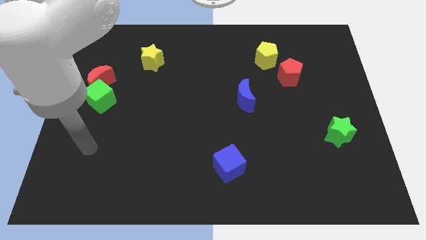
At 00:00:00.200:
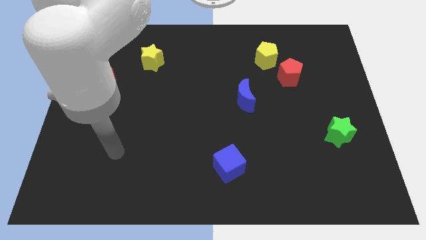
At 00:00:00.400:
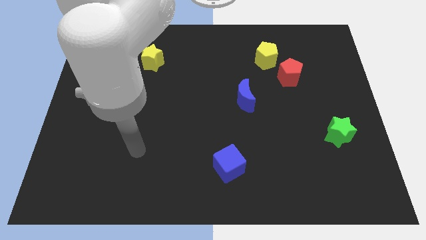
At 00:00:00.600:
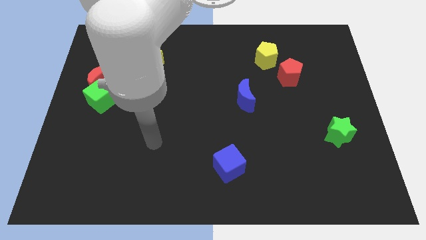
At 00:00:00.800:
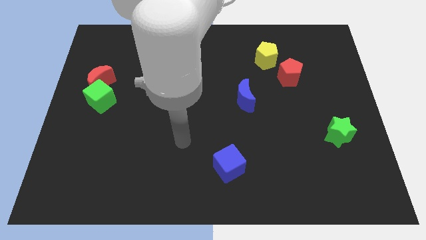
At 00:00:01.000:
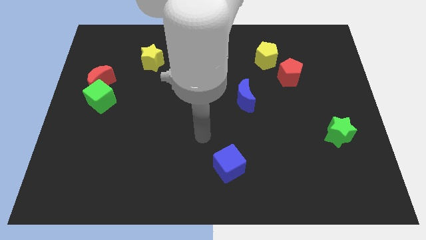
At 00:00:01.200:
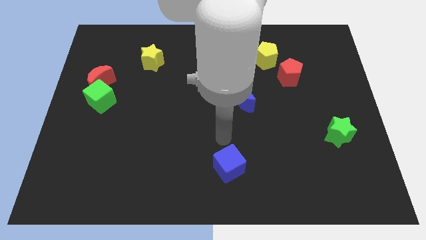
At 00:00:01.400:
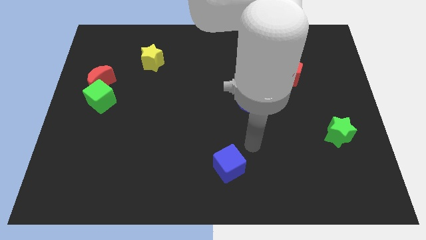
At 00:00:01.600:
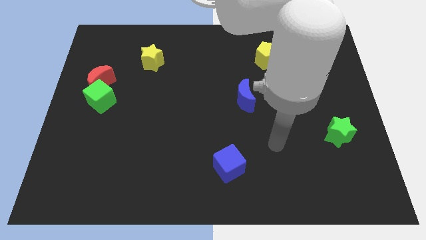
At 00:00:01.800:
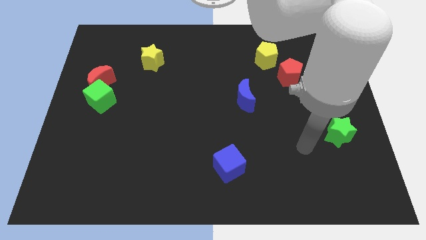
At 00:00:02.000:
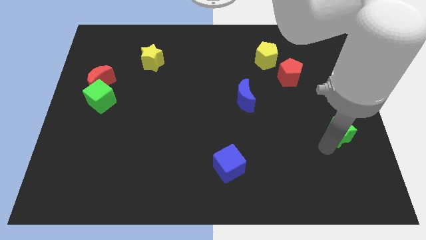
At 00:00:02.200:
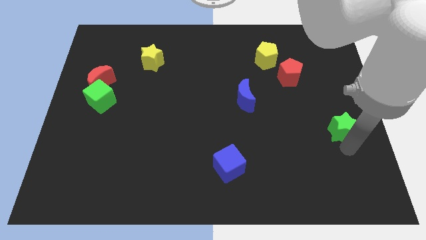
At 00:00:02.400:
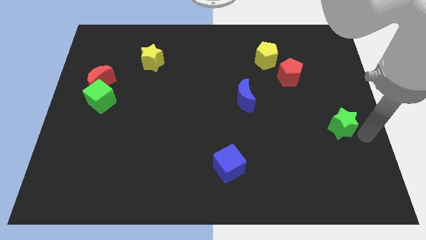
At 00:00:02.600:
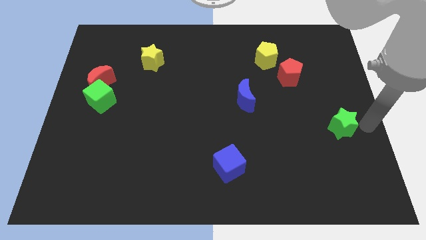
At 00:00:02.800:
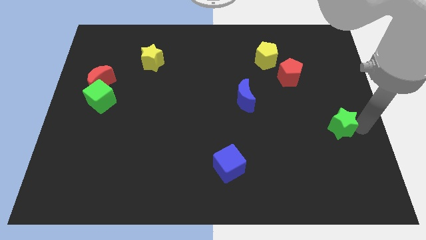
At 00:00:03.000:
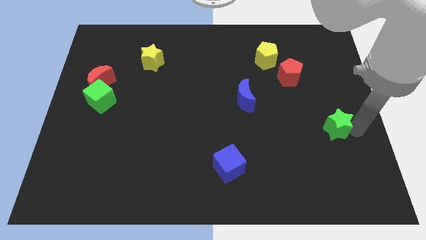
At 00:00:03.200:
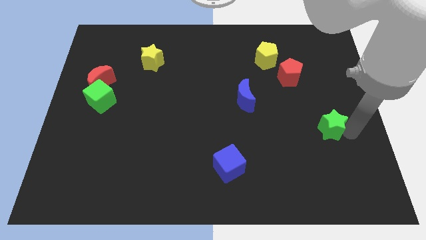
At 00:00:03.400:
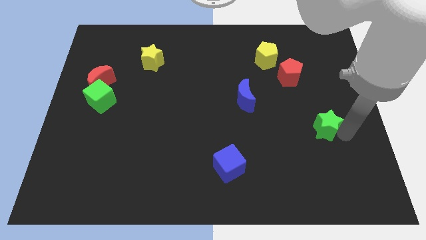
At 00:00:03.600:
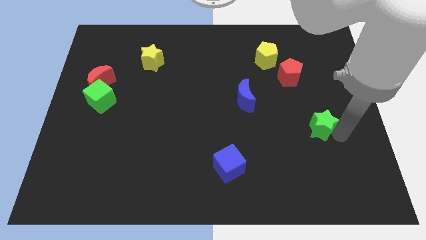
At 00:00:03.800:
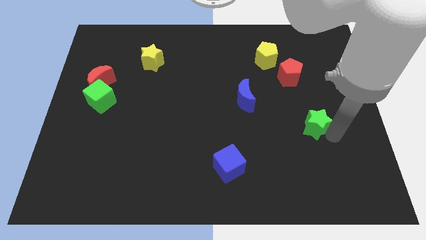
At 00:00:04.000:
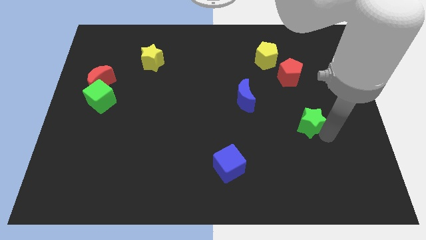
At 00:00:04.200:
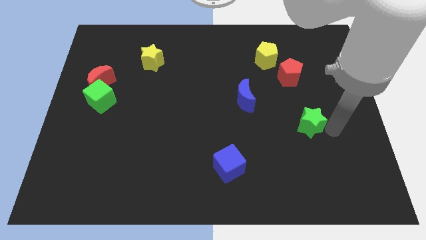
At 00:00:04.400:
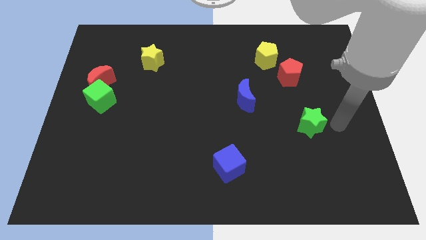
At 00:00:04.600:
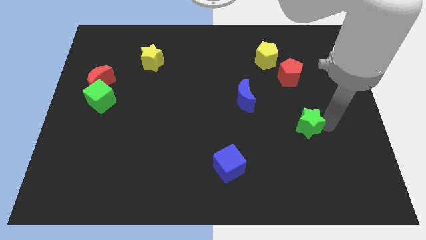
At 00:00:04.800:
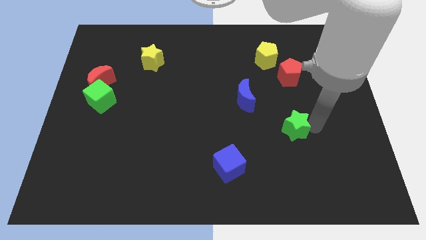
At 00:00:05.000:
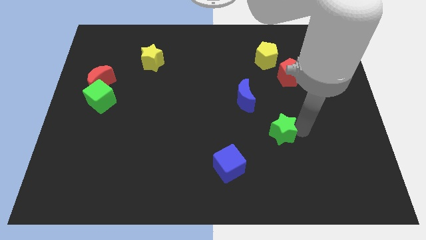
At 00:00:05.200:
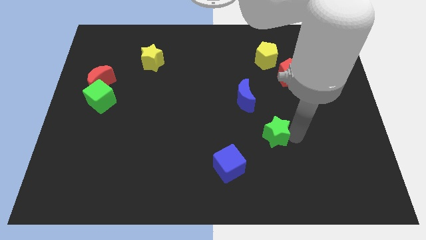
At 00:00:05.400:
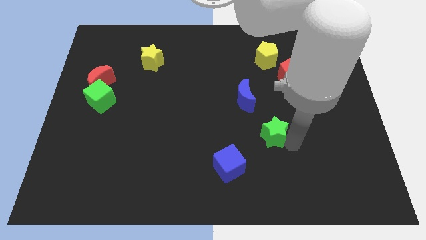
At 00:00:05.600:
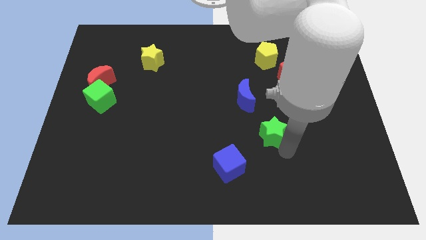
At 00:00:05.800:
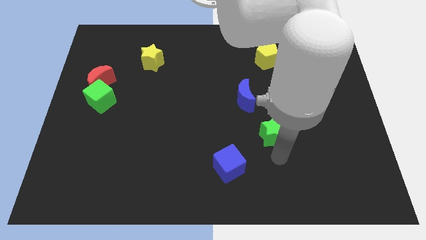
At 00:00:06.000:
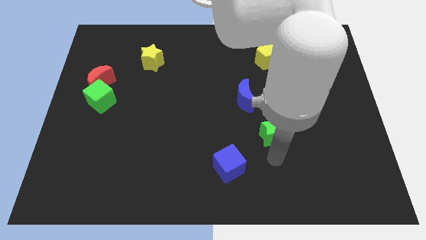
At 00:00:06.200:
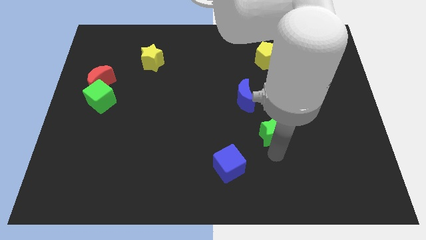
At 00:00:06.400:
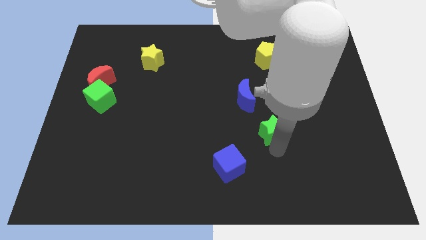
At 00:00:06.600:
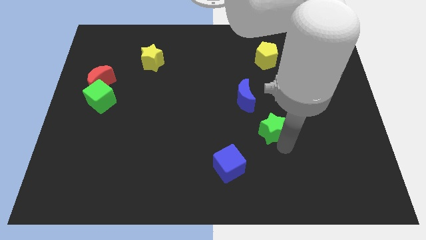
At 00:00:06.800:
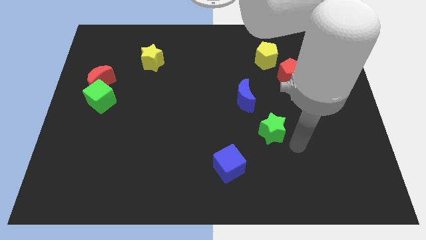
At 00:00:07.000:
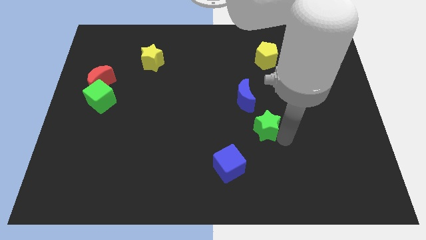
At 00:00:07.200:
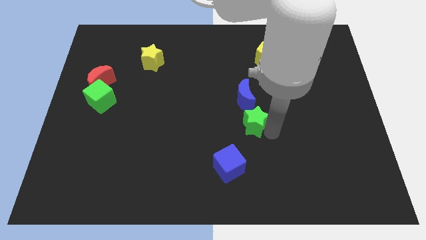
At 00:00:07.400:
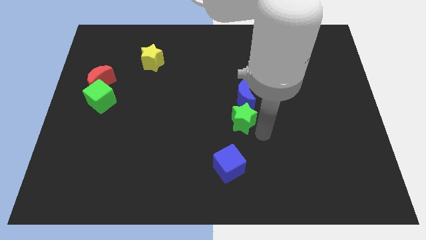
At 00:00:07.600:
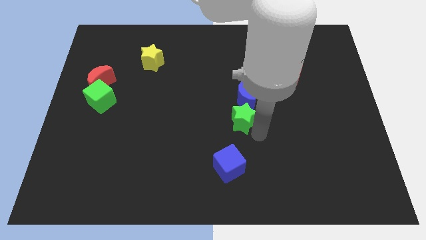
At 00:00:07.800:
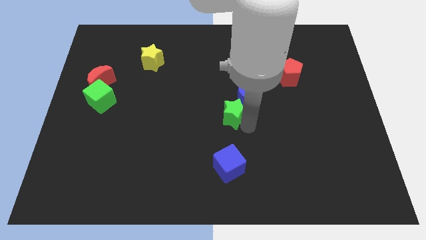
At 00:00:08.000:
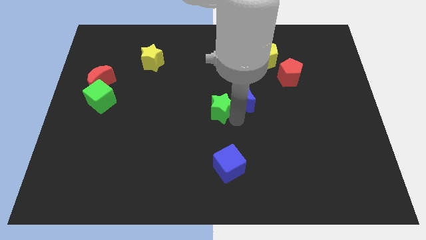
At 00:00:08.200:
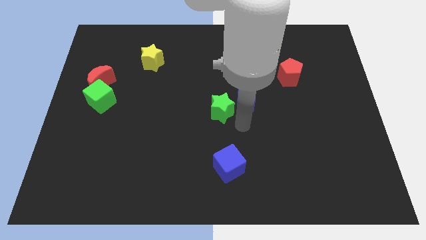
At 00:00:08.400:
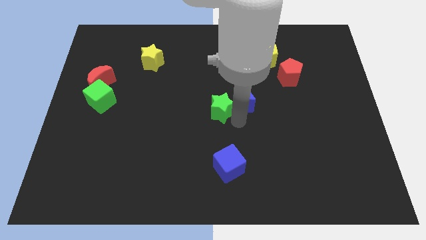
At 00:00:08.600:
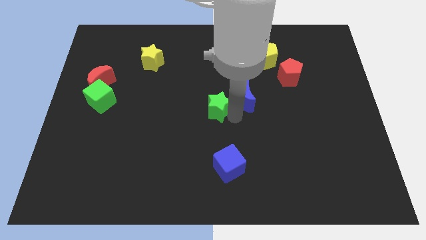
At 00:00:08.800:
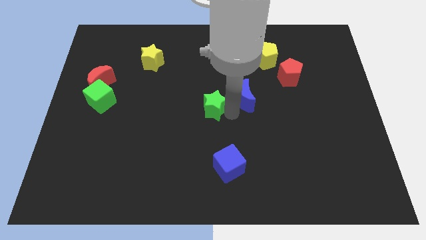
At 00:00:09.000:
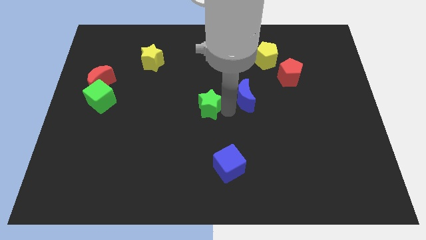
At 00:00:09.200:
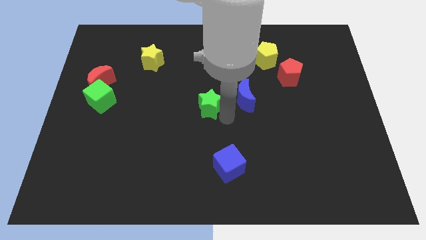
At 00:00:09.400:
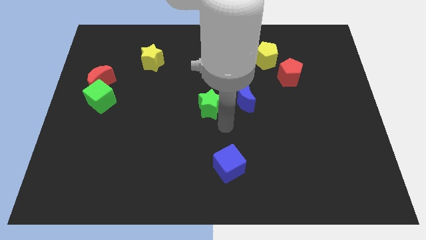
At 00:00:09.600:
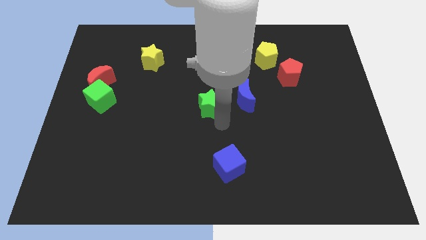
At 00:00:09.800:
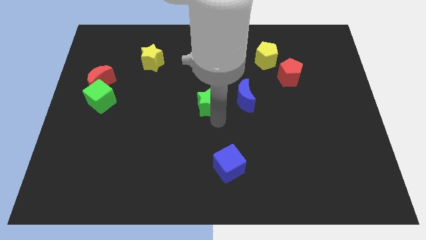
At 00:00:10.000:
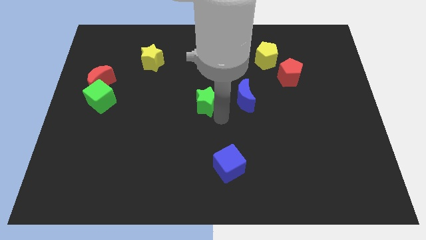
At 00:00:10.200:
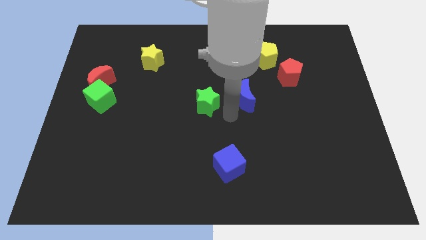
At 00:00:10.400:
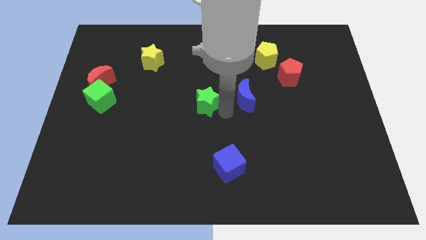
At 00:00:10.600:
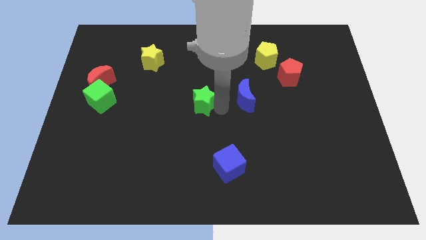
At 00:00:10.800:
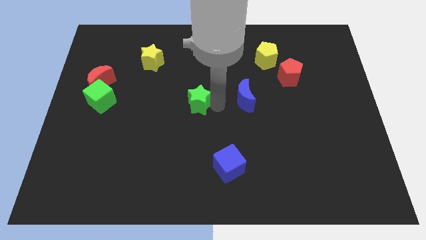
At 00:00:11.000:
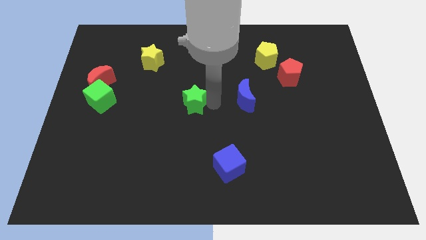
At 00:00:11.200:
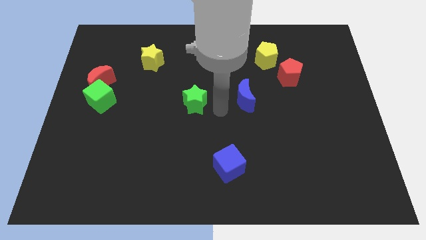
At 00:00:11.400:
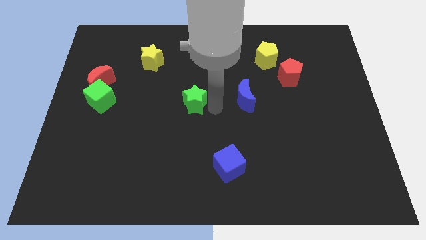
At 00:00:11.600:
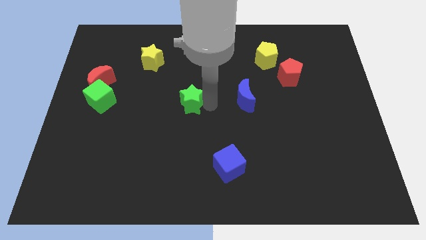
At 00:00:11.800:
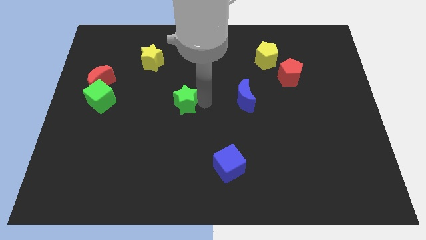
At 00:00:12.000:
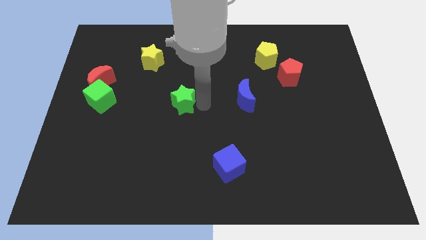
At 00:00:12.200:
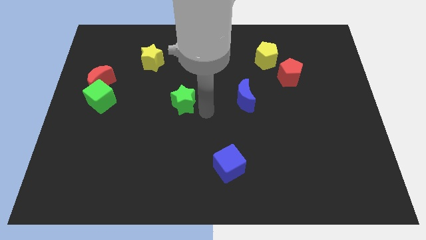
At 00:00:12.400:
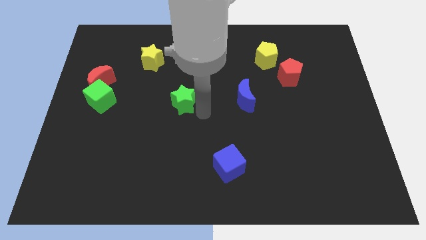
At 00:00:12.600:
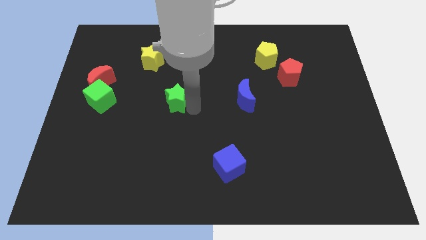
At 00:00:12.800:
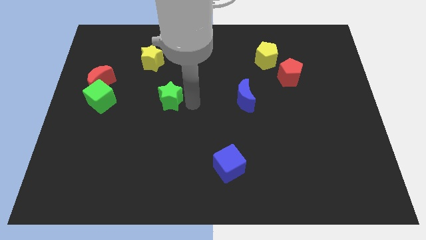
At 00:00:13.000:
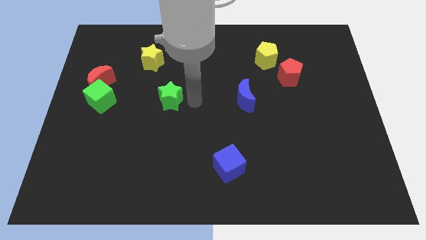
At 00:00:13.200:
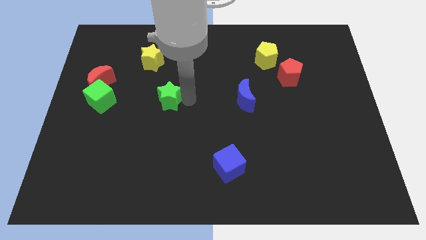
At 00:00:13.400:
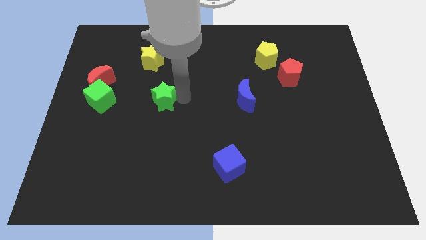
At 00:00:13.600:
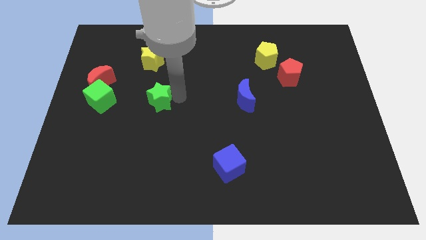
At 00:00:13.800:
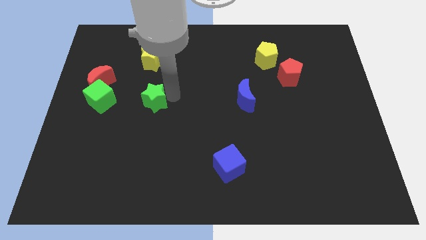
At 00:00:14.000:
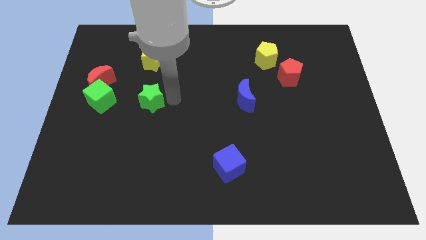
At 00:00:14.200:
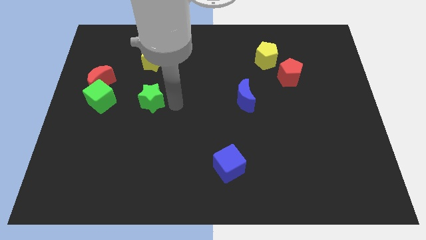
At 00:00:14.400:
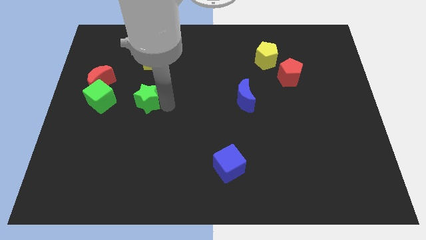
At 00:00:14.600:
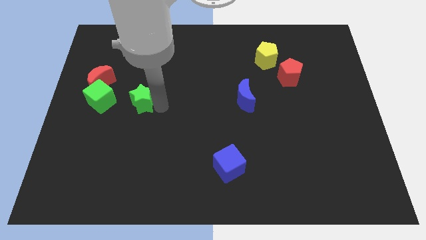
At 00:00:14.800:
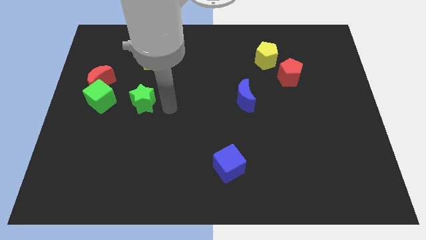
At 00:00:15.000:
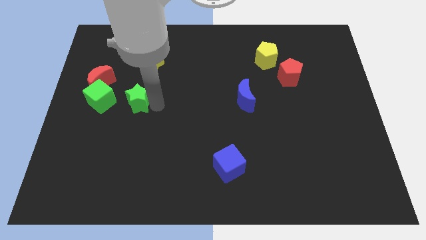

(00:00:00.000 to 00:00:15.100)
put the green star to the bottom right of the red moon

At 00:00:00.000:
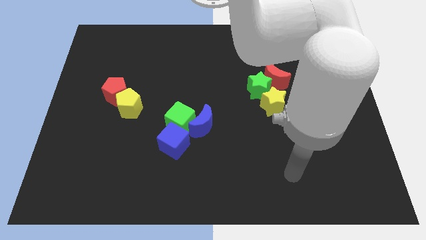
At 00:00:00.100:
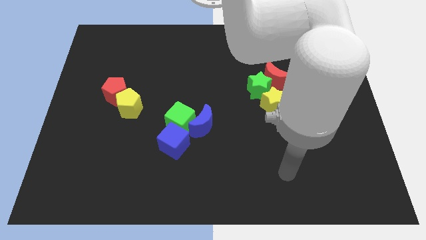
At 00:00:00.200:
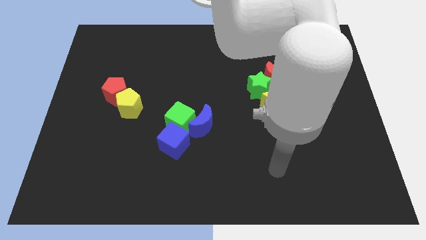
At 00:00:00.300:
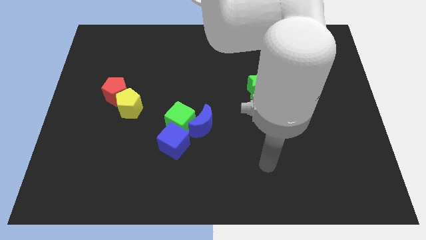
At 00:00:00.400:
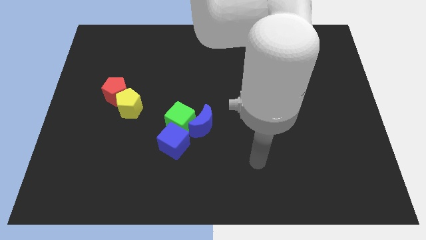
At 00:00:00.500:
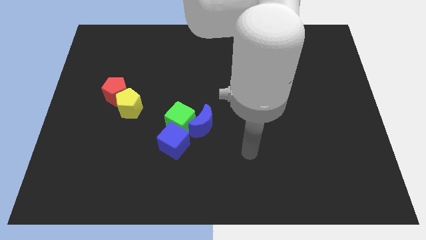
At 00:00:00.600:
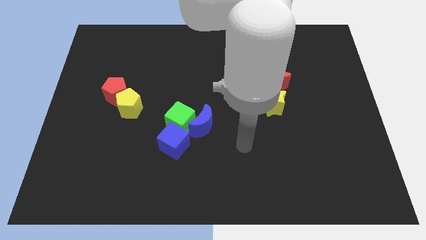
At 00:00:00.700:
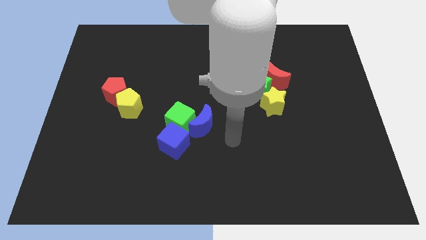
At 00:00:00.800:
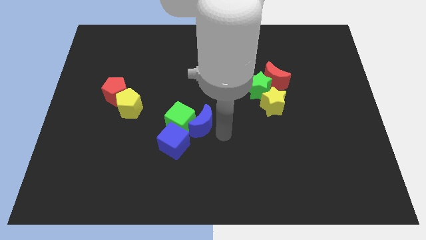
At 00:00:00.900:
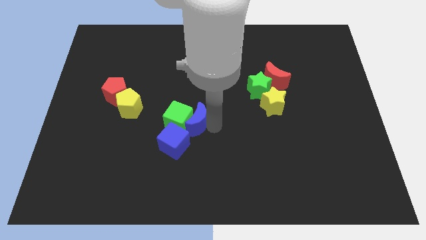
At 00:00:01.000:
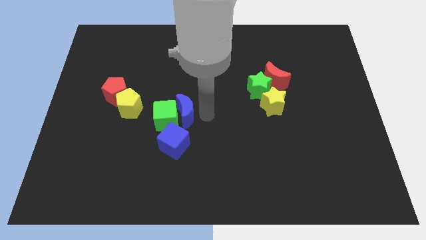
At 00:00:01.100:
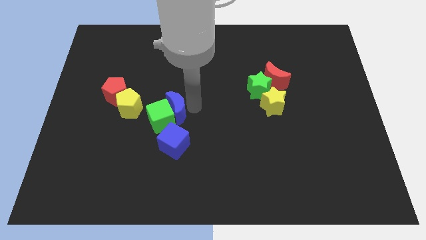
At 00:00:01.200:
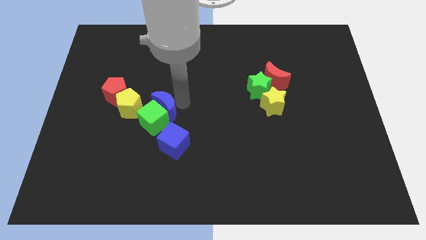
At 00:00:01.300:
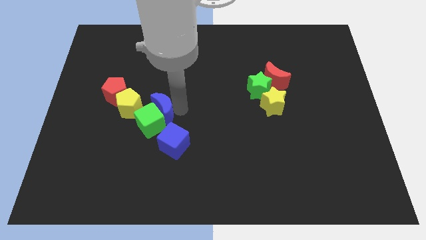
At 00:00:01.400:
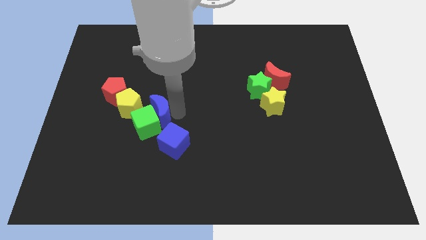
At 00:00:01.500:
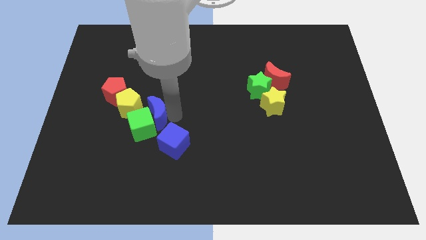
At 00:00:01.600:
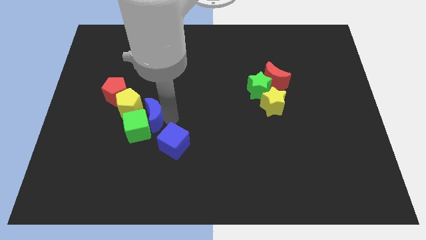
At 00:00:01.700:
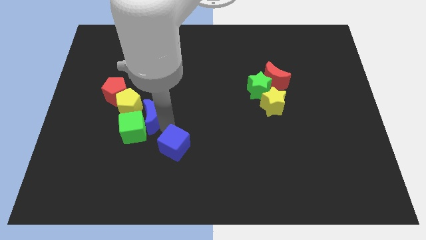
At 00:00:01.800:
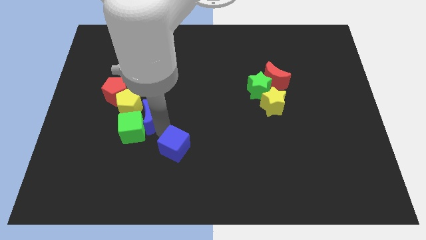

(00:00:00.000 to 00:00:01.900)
slide the green cube to the bottom side of the red pentagon
